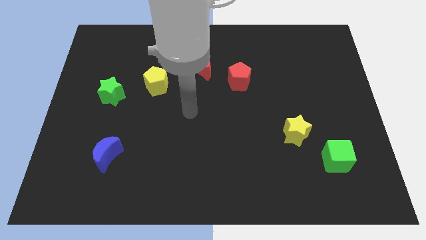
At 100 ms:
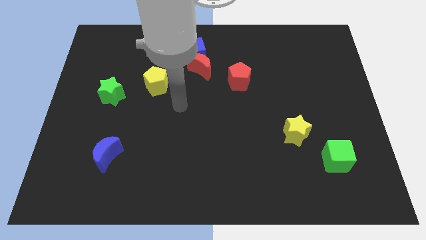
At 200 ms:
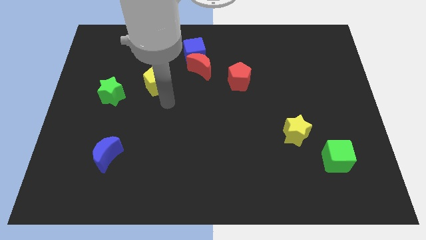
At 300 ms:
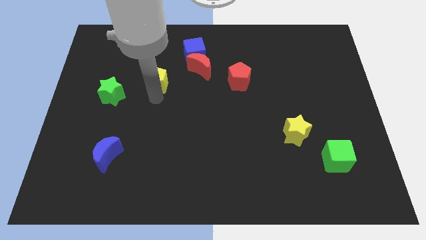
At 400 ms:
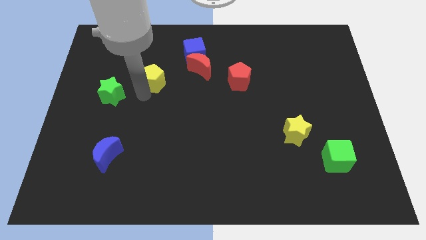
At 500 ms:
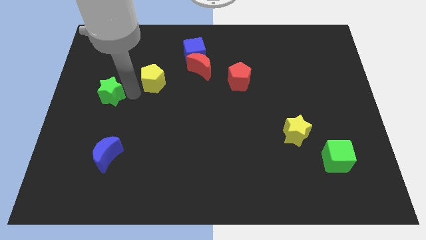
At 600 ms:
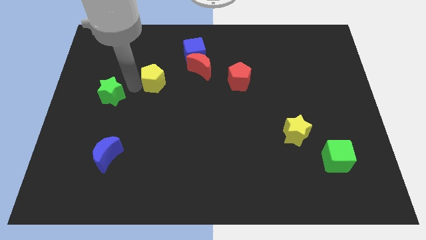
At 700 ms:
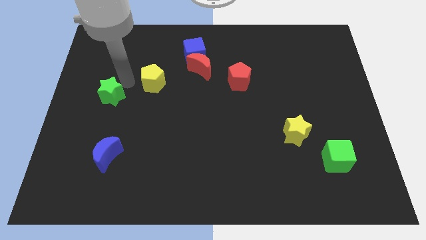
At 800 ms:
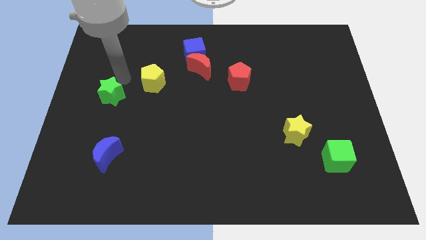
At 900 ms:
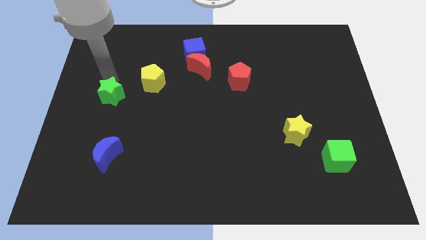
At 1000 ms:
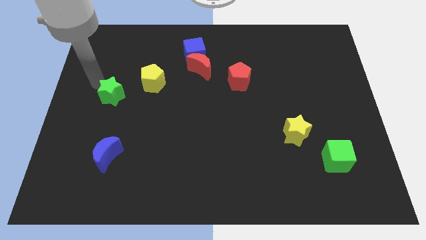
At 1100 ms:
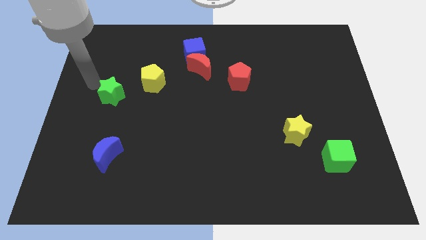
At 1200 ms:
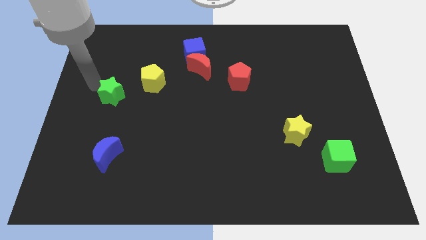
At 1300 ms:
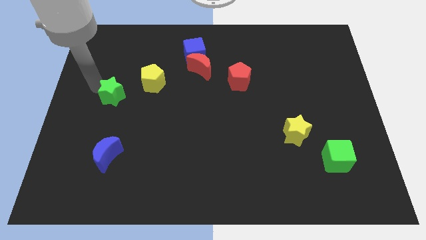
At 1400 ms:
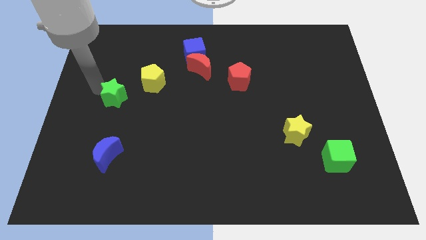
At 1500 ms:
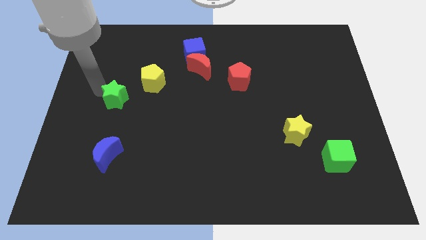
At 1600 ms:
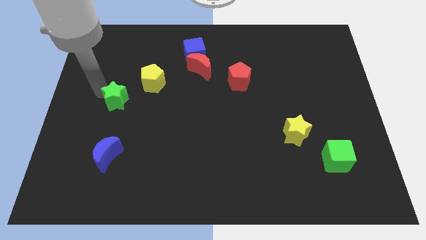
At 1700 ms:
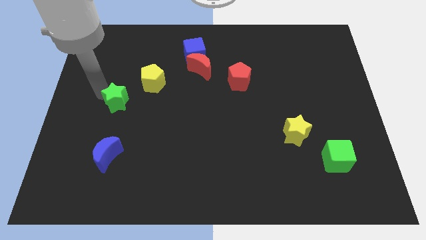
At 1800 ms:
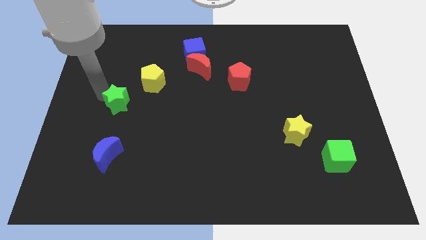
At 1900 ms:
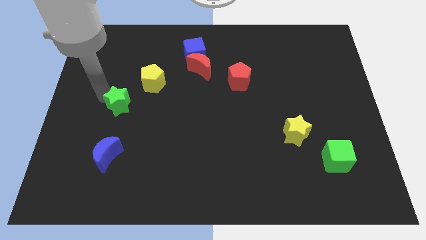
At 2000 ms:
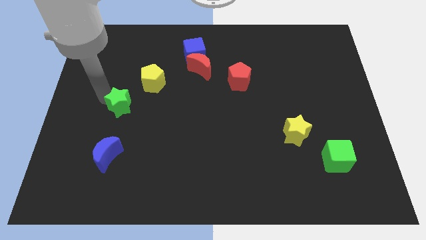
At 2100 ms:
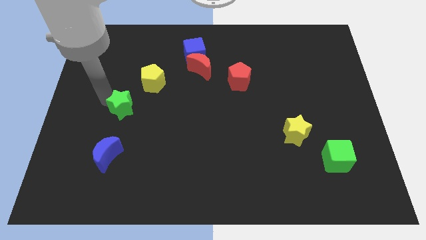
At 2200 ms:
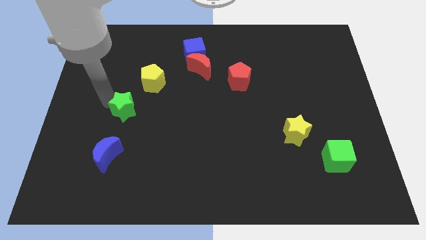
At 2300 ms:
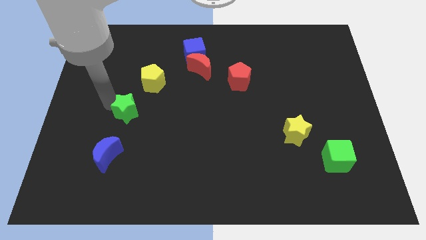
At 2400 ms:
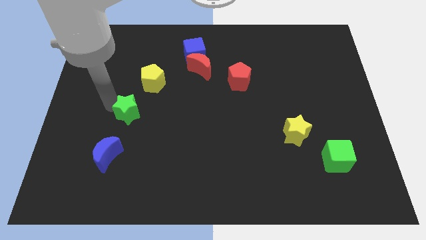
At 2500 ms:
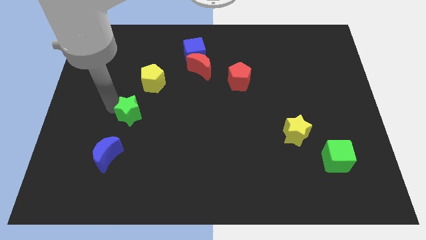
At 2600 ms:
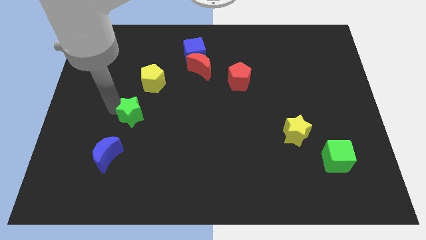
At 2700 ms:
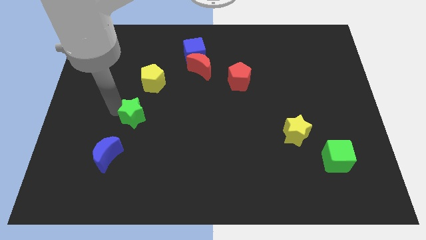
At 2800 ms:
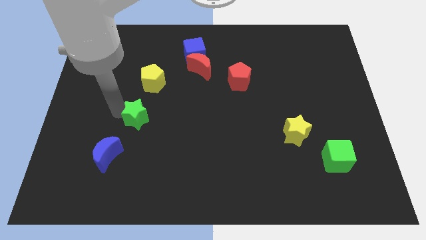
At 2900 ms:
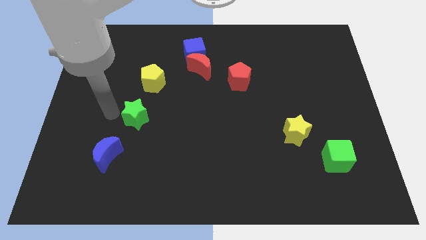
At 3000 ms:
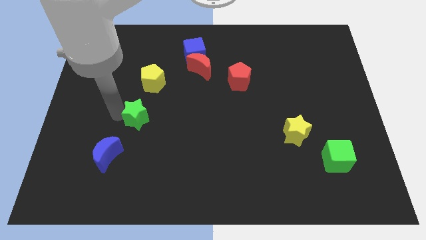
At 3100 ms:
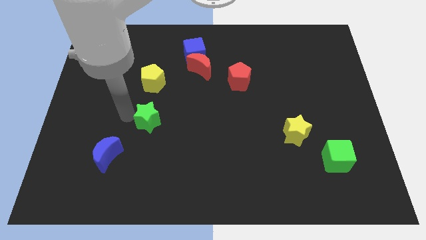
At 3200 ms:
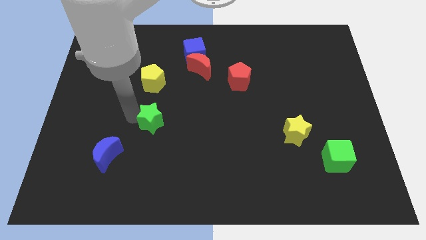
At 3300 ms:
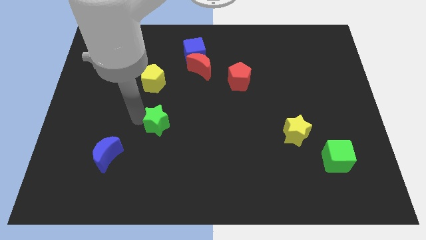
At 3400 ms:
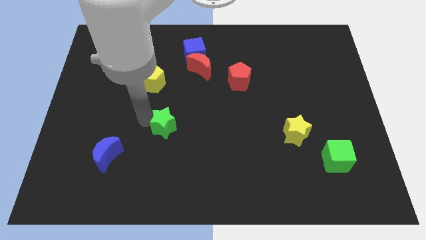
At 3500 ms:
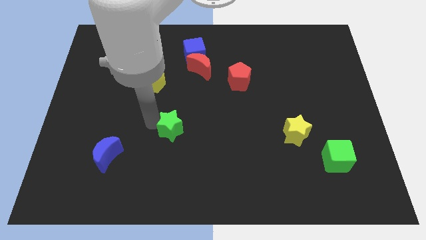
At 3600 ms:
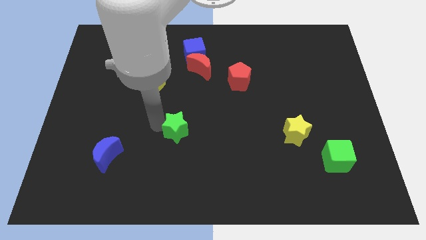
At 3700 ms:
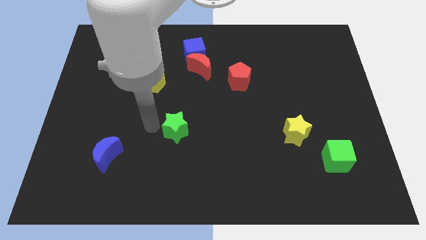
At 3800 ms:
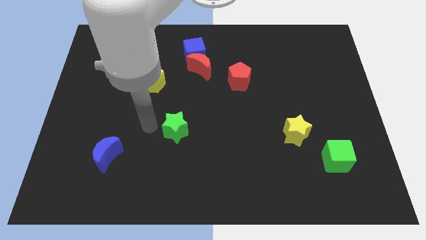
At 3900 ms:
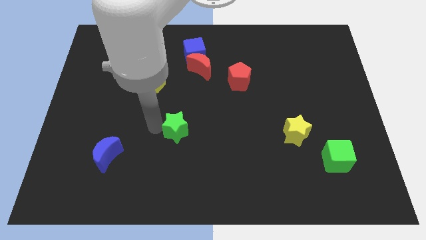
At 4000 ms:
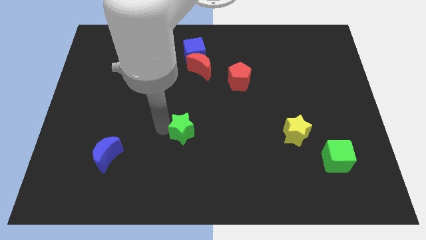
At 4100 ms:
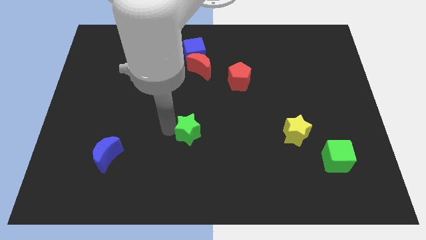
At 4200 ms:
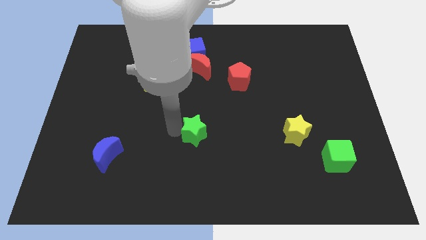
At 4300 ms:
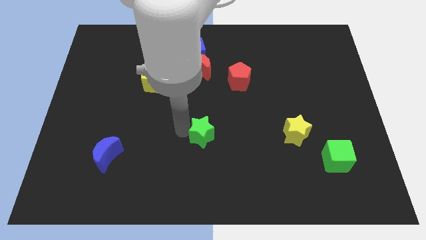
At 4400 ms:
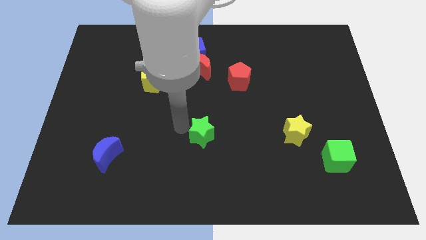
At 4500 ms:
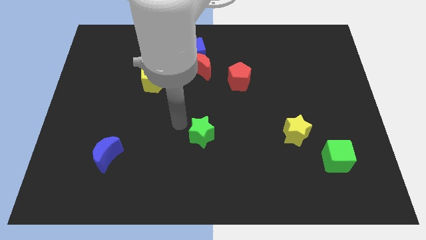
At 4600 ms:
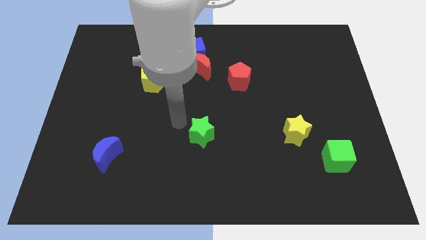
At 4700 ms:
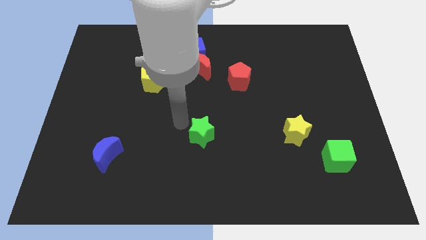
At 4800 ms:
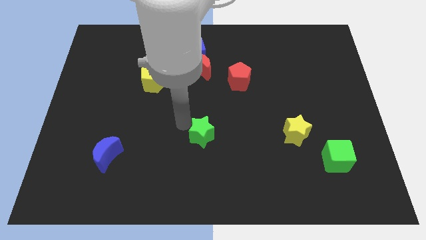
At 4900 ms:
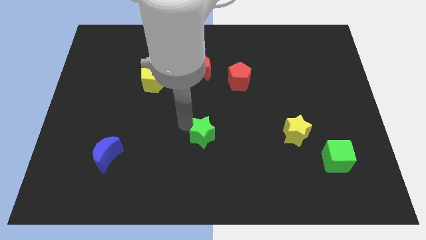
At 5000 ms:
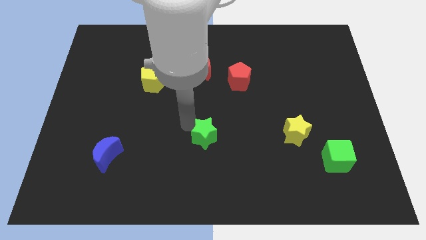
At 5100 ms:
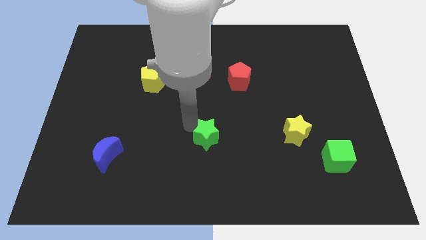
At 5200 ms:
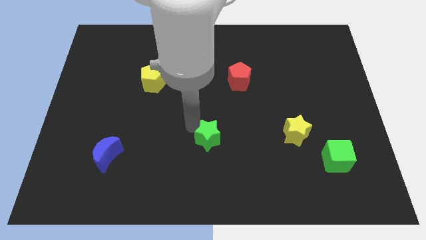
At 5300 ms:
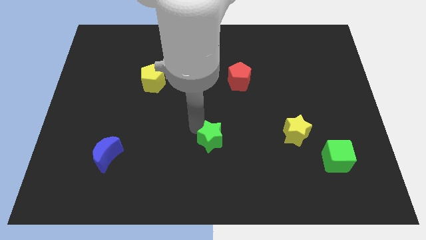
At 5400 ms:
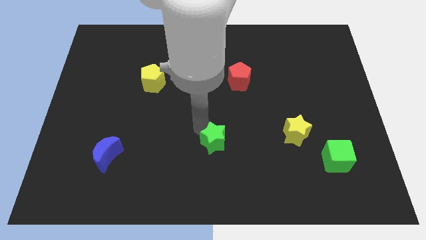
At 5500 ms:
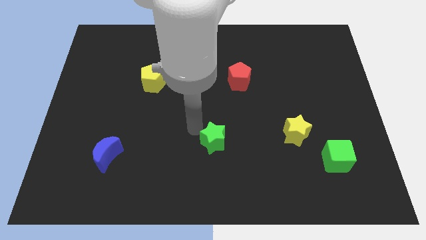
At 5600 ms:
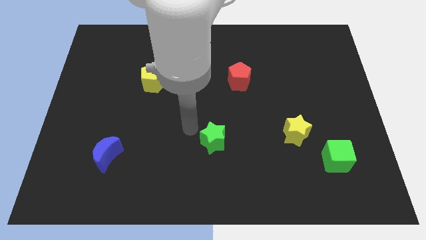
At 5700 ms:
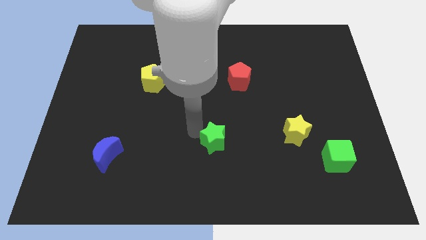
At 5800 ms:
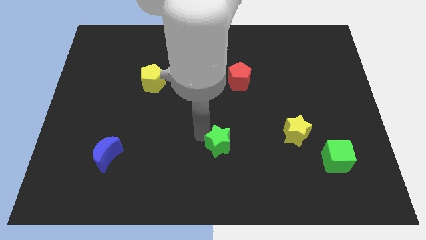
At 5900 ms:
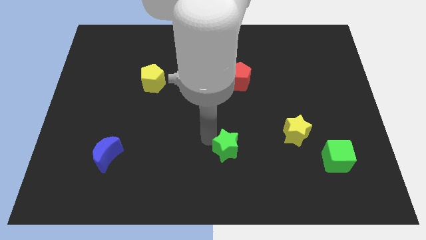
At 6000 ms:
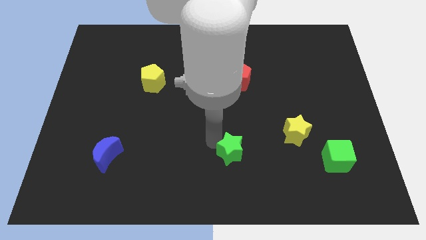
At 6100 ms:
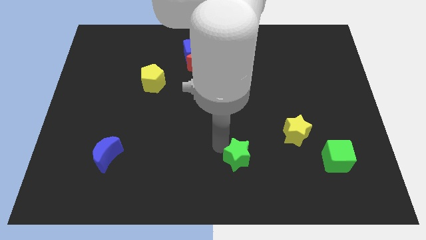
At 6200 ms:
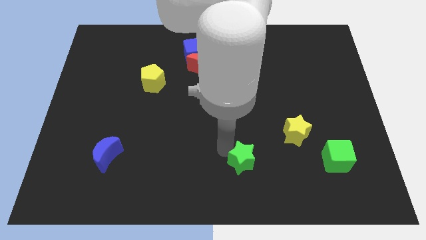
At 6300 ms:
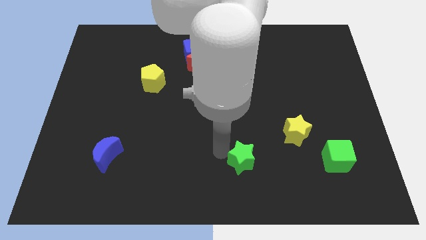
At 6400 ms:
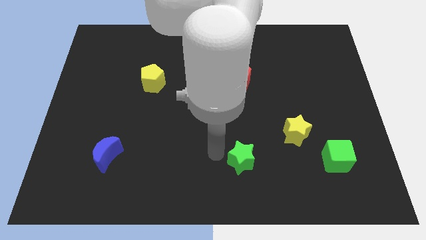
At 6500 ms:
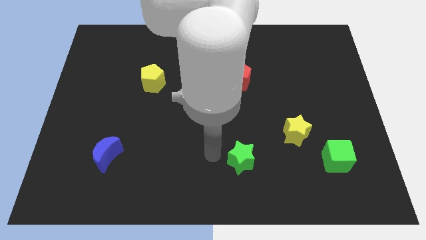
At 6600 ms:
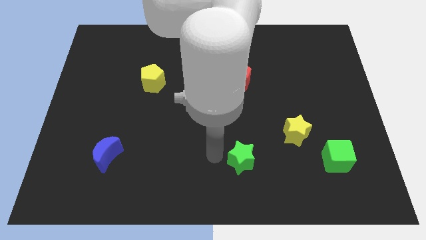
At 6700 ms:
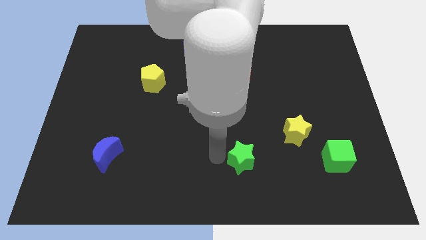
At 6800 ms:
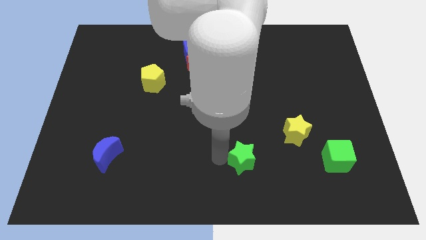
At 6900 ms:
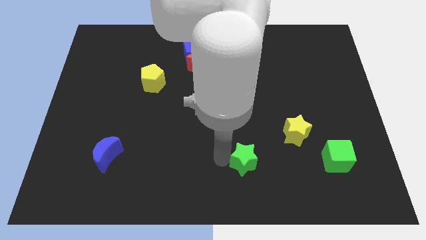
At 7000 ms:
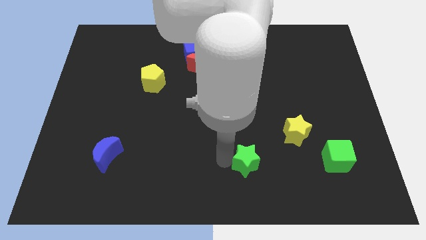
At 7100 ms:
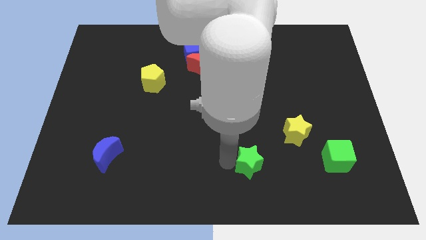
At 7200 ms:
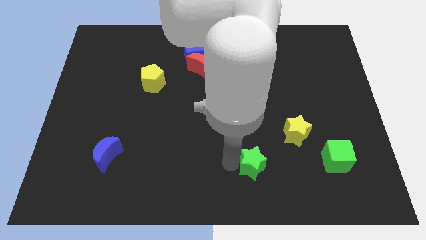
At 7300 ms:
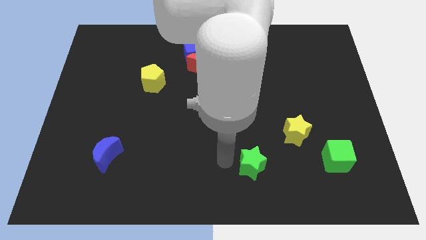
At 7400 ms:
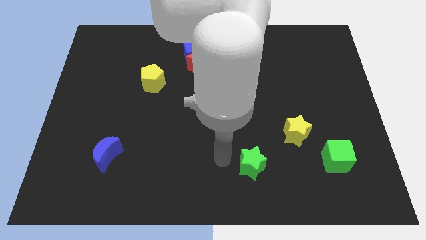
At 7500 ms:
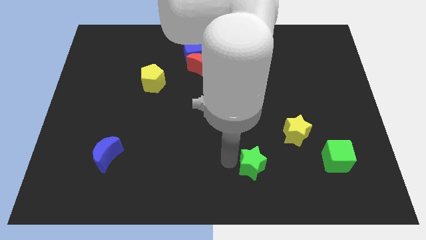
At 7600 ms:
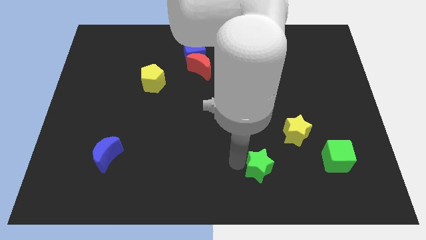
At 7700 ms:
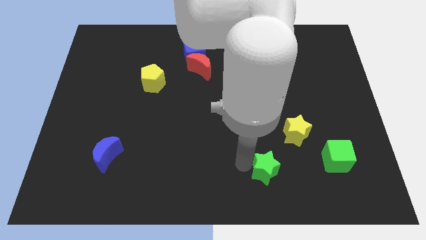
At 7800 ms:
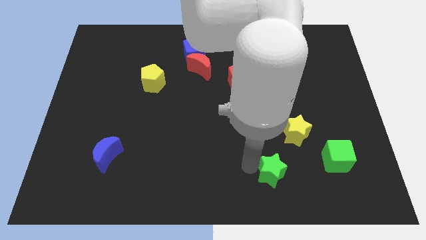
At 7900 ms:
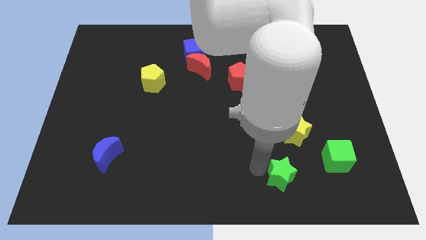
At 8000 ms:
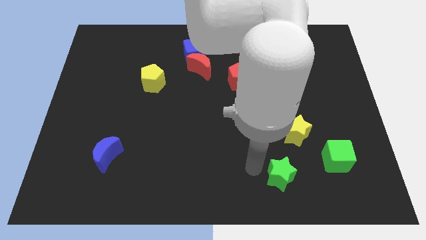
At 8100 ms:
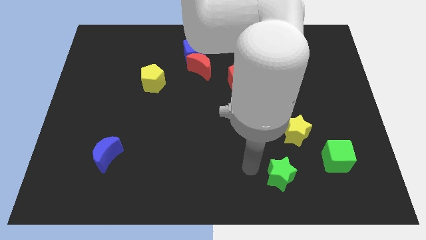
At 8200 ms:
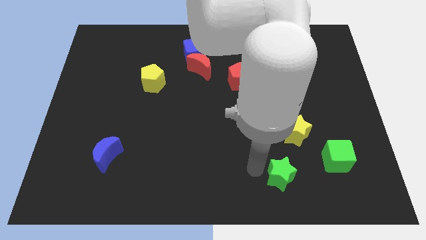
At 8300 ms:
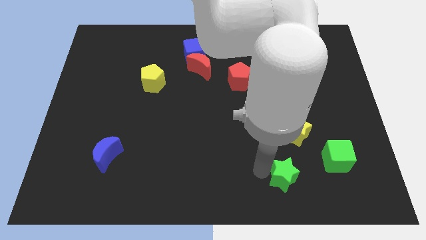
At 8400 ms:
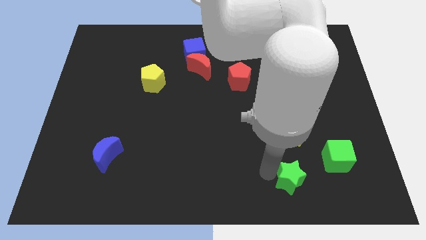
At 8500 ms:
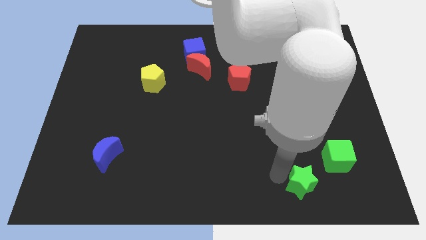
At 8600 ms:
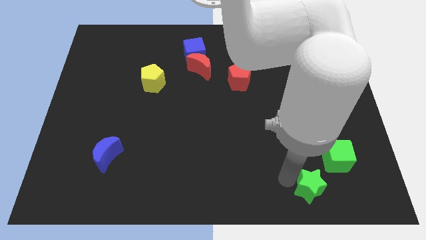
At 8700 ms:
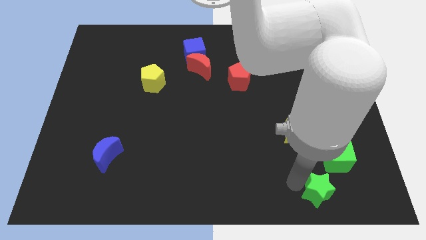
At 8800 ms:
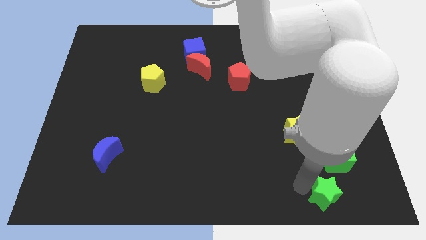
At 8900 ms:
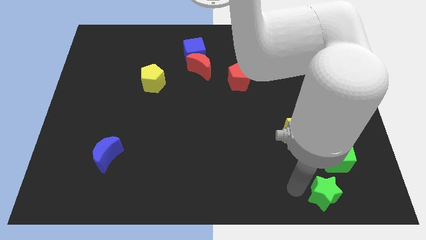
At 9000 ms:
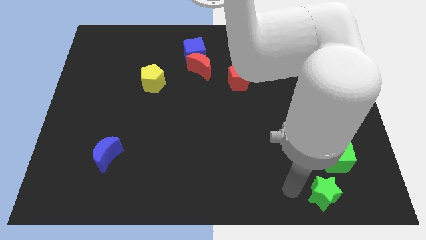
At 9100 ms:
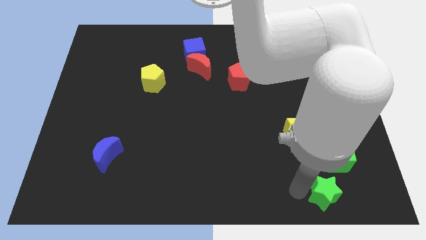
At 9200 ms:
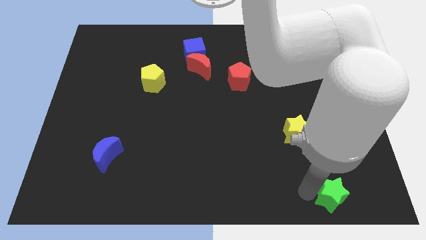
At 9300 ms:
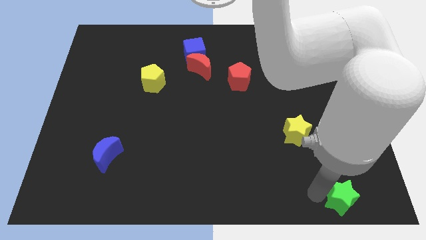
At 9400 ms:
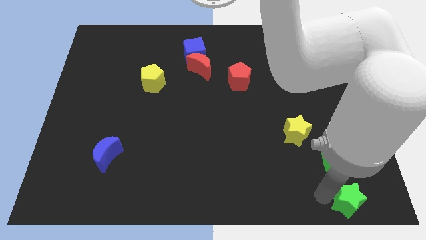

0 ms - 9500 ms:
move the green star to the lower right corner
